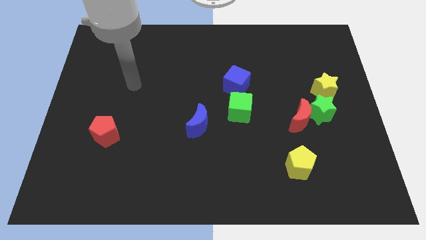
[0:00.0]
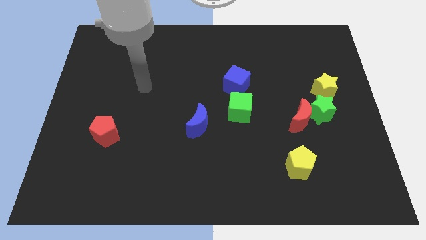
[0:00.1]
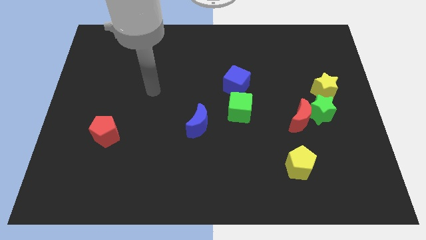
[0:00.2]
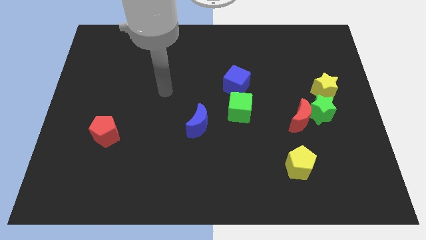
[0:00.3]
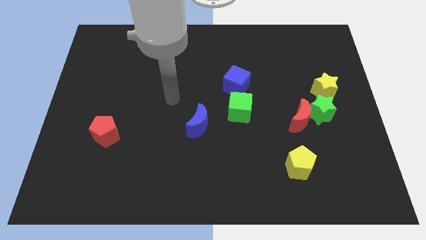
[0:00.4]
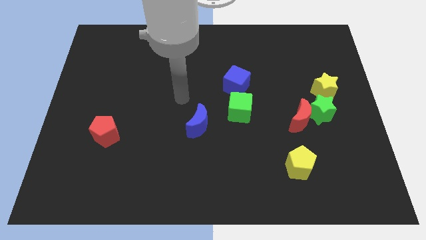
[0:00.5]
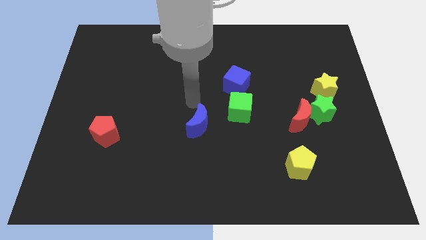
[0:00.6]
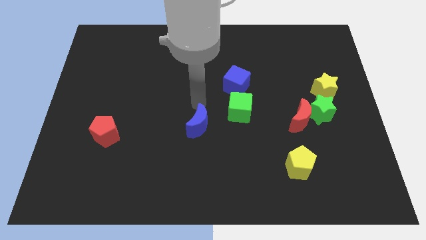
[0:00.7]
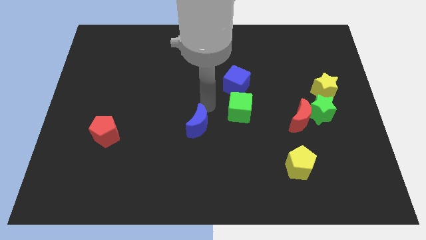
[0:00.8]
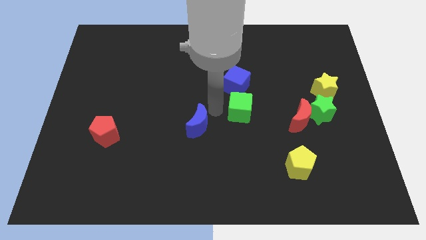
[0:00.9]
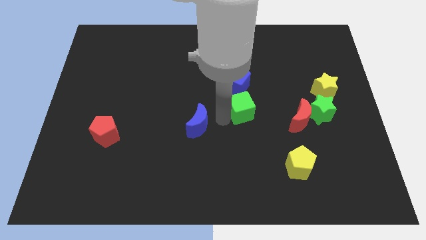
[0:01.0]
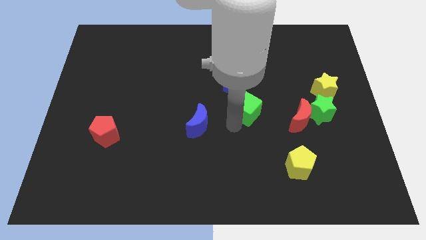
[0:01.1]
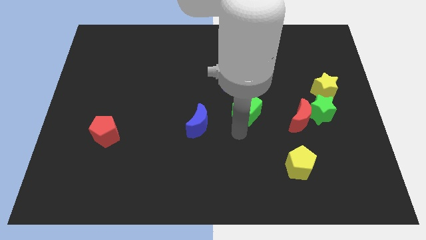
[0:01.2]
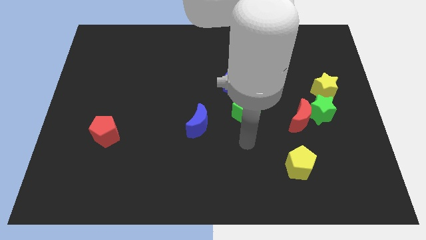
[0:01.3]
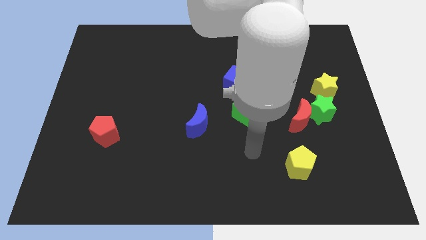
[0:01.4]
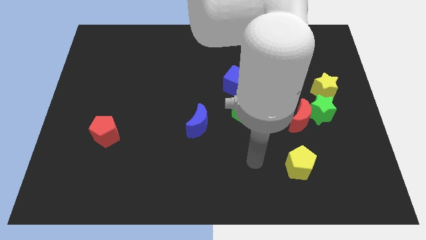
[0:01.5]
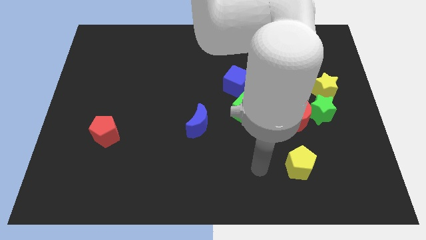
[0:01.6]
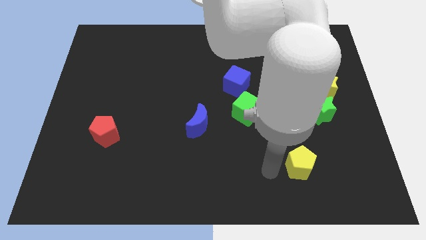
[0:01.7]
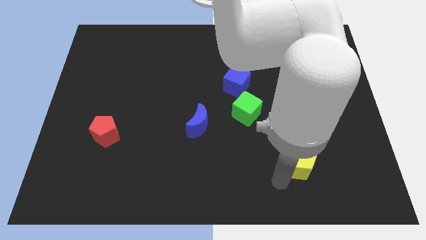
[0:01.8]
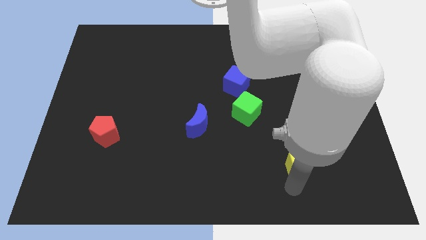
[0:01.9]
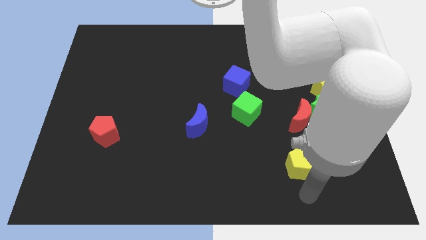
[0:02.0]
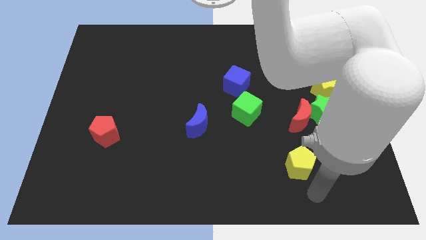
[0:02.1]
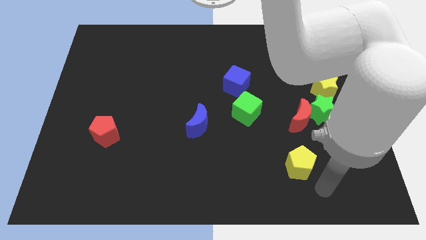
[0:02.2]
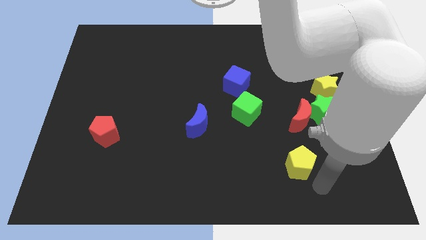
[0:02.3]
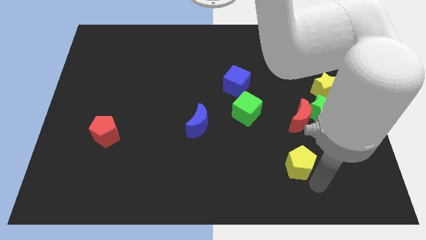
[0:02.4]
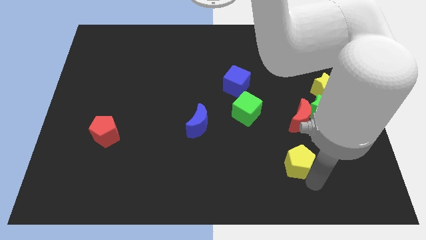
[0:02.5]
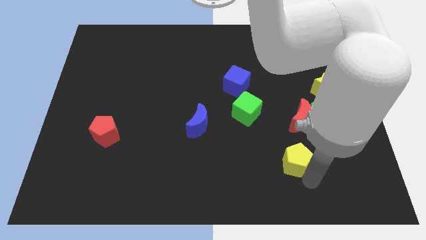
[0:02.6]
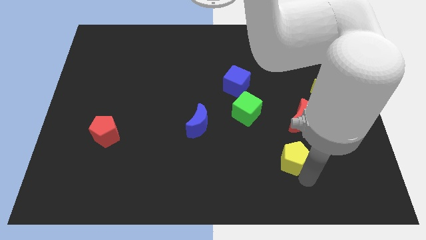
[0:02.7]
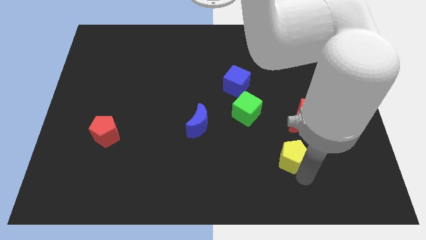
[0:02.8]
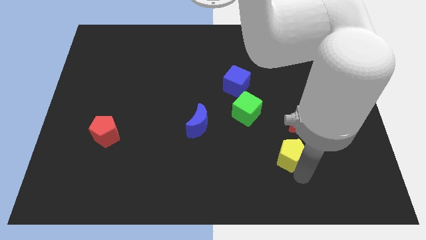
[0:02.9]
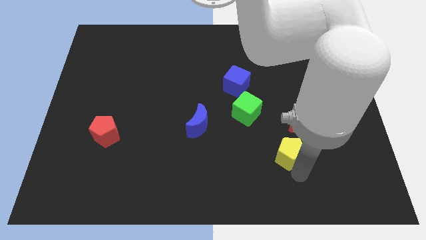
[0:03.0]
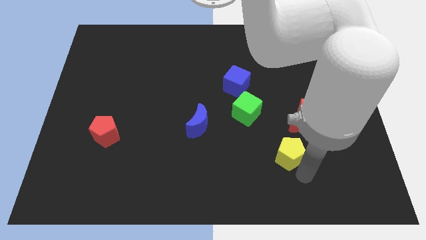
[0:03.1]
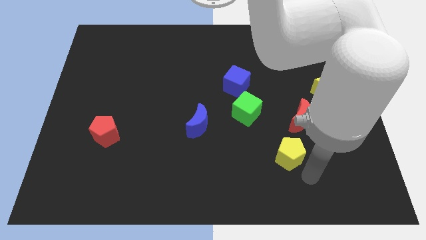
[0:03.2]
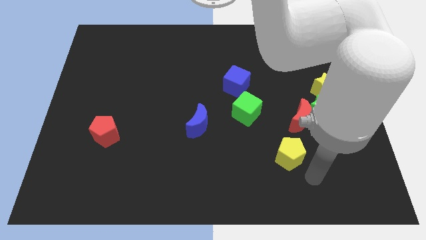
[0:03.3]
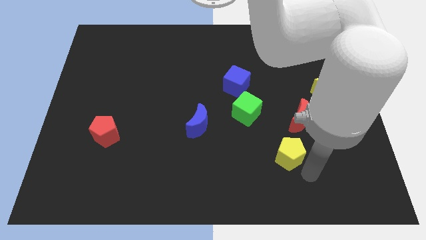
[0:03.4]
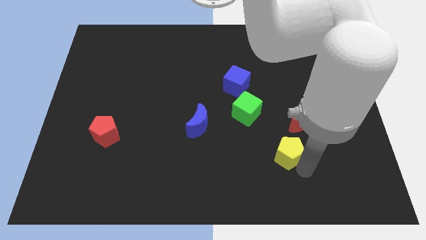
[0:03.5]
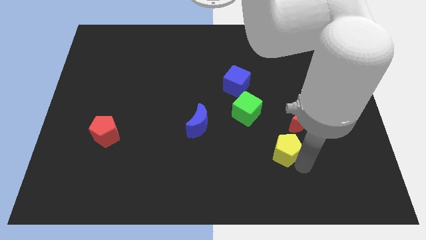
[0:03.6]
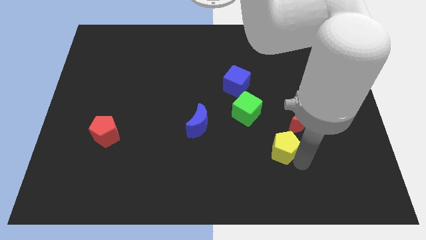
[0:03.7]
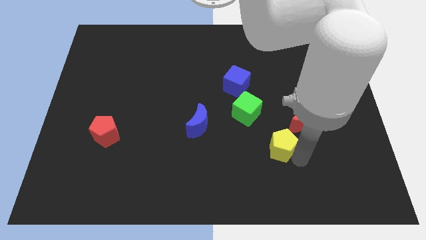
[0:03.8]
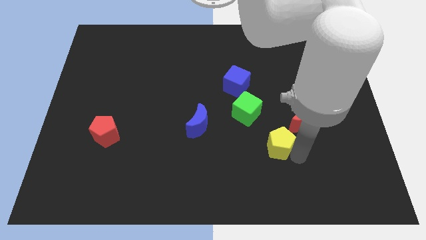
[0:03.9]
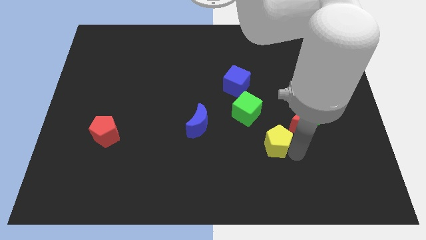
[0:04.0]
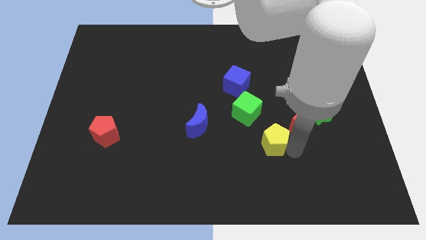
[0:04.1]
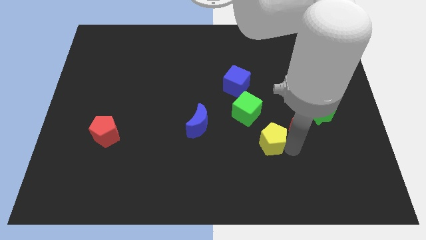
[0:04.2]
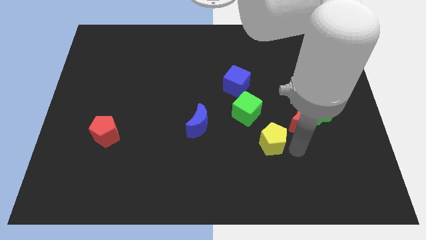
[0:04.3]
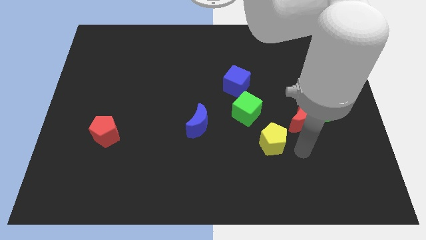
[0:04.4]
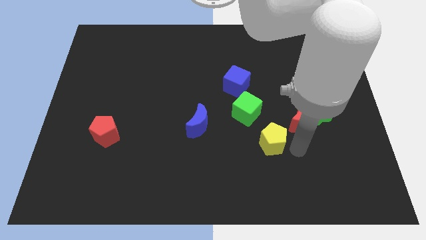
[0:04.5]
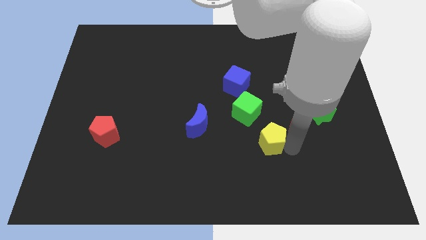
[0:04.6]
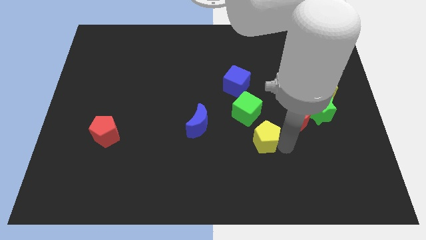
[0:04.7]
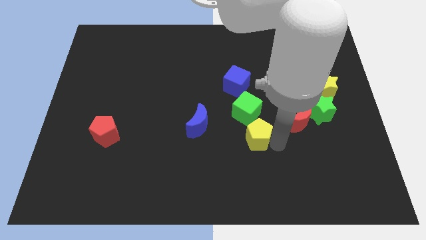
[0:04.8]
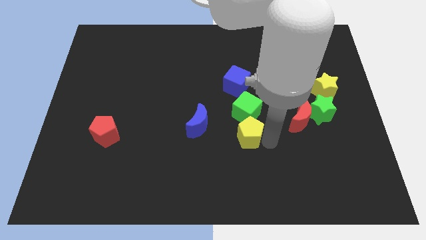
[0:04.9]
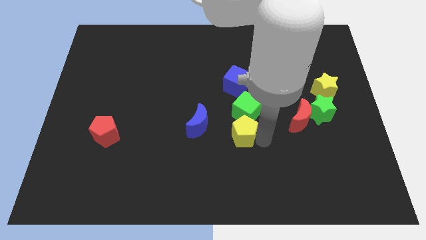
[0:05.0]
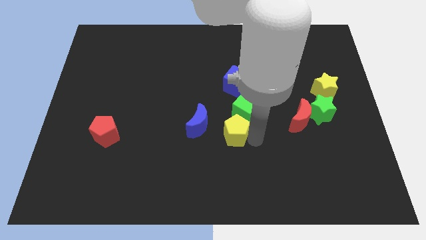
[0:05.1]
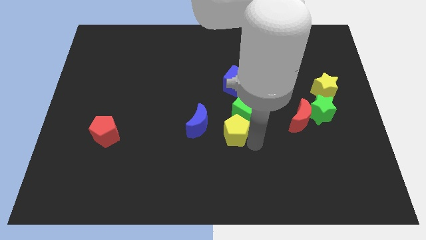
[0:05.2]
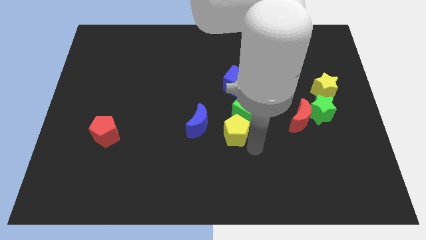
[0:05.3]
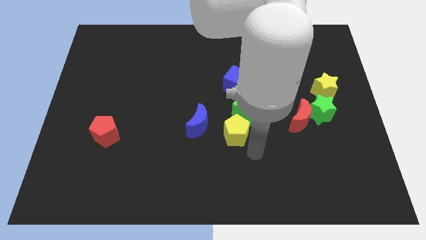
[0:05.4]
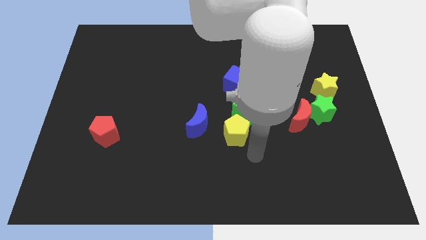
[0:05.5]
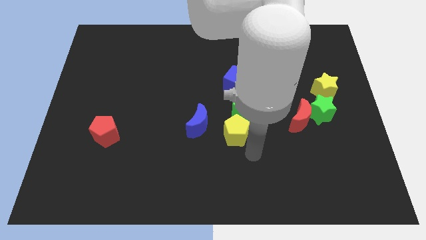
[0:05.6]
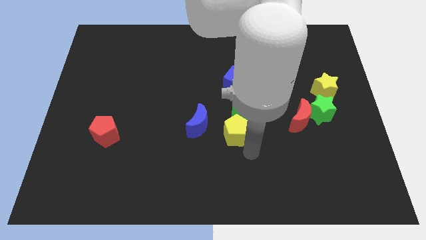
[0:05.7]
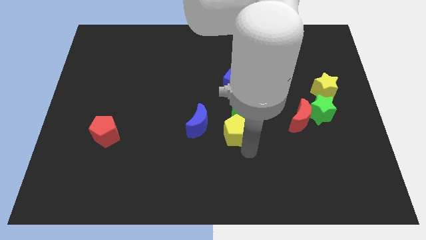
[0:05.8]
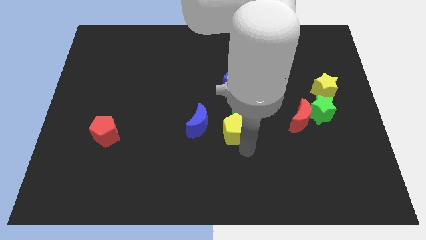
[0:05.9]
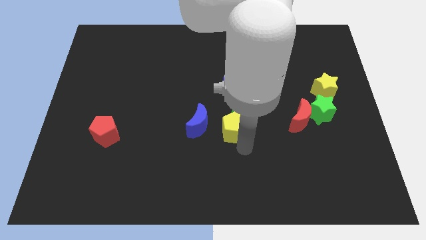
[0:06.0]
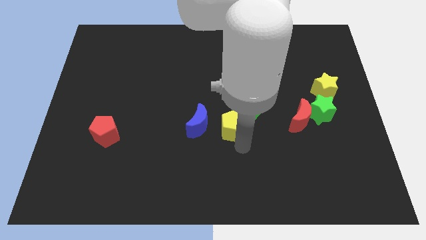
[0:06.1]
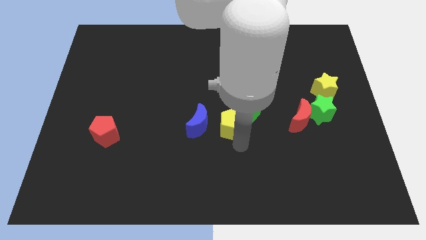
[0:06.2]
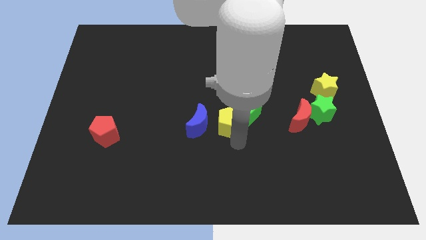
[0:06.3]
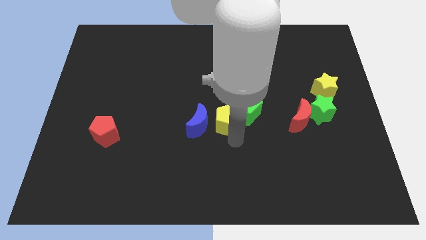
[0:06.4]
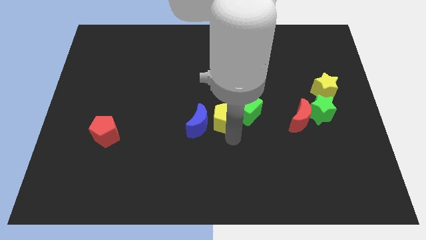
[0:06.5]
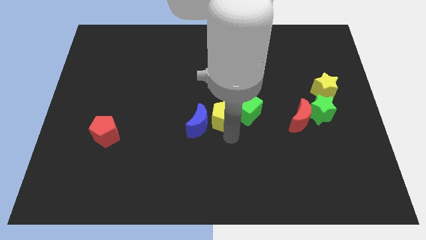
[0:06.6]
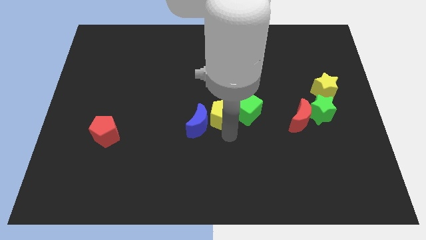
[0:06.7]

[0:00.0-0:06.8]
slide the yellow pentagon upwards and then to the left

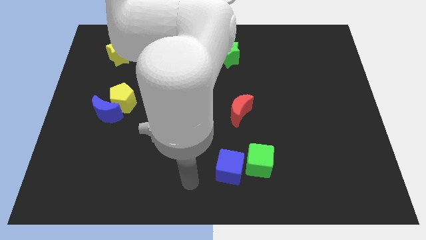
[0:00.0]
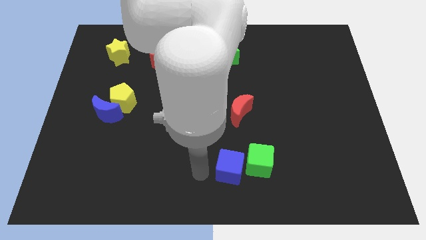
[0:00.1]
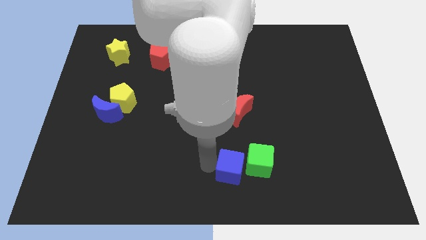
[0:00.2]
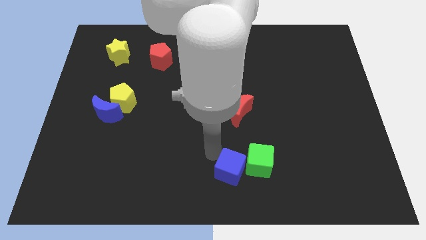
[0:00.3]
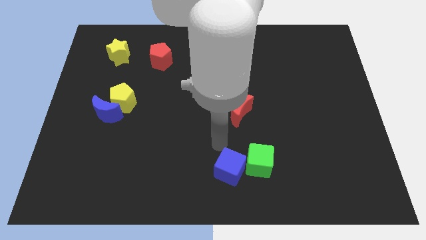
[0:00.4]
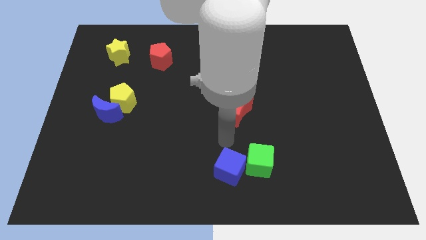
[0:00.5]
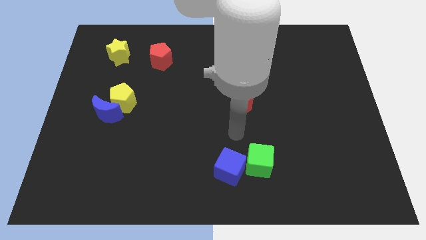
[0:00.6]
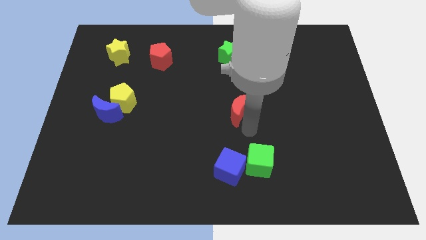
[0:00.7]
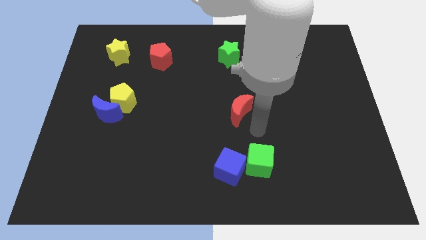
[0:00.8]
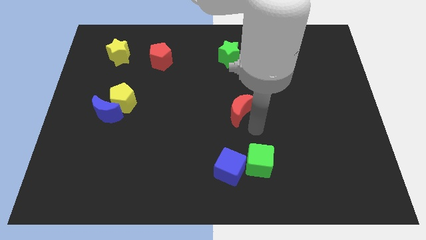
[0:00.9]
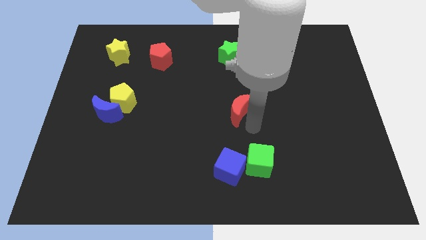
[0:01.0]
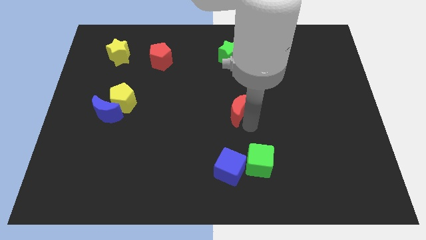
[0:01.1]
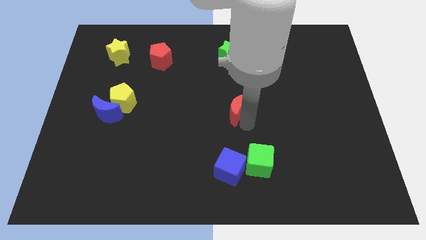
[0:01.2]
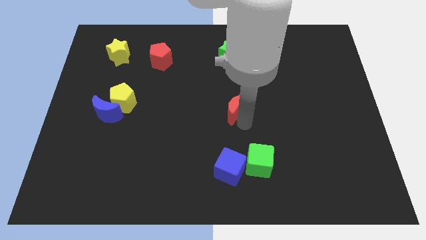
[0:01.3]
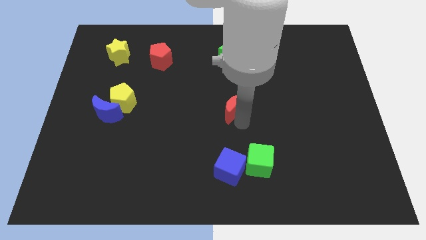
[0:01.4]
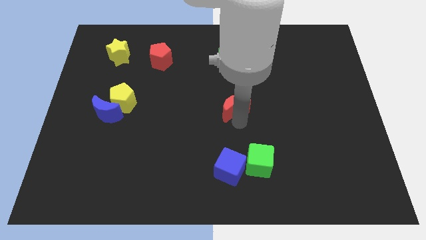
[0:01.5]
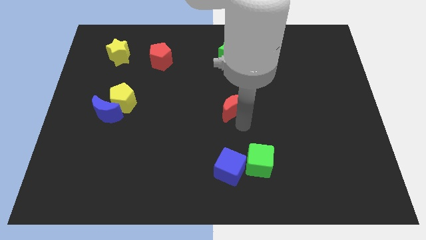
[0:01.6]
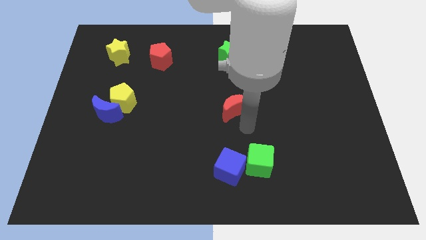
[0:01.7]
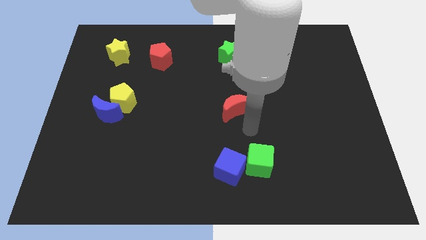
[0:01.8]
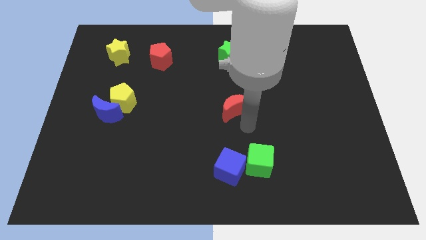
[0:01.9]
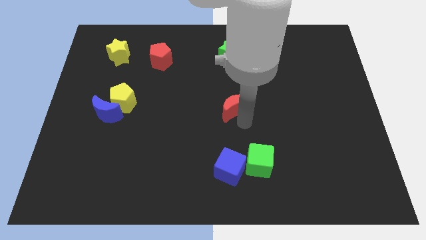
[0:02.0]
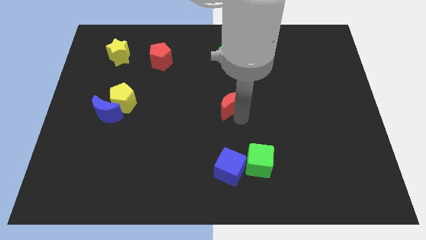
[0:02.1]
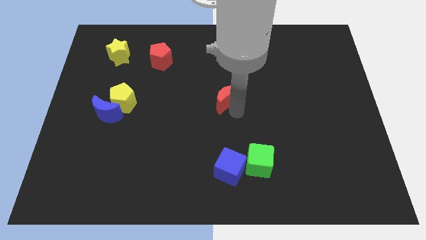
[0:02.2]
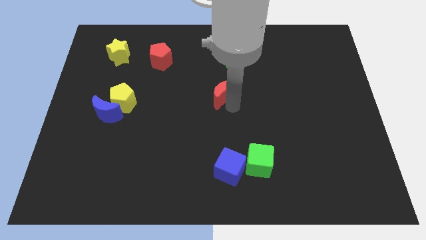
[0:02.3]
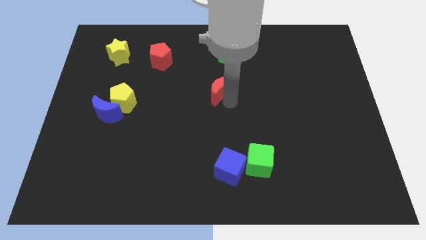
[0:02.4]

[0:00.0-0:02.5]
slide the red moon upwards and to the left somewhat
